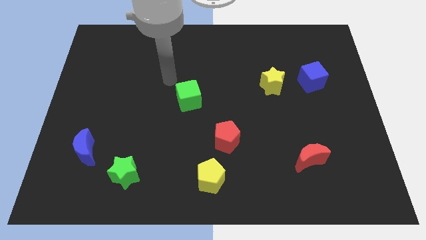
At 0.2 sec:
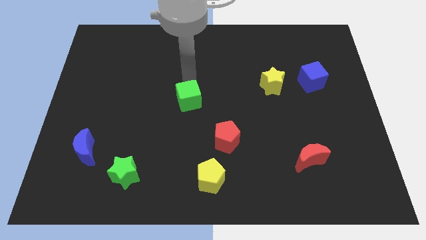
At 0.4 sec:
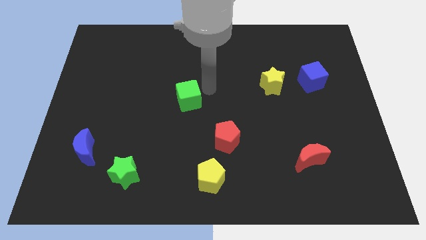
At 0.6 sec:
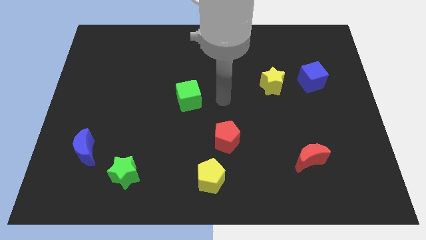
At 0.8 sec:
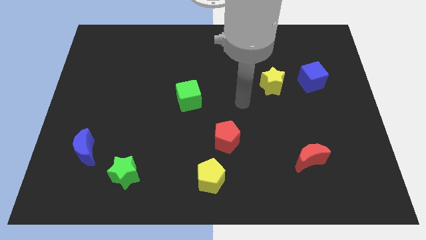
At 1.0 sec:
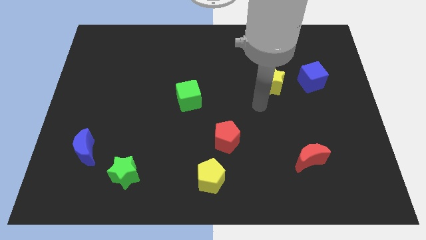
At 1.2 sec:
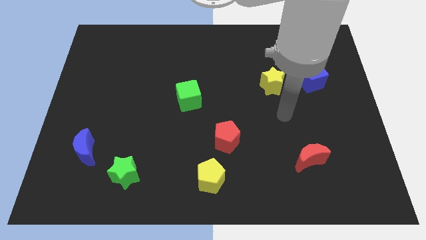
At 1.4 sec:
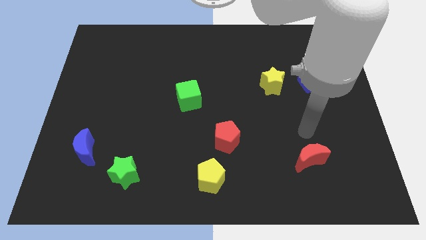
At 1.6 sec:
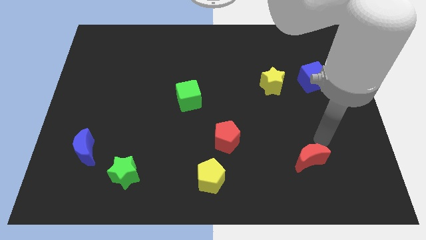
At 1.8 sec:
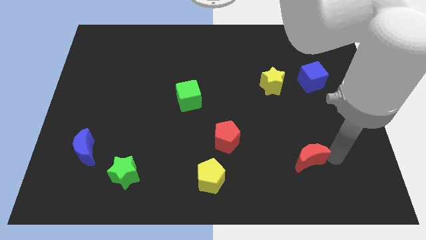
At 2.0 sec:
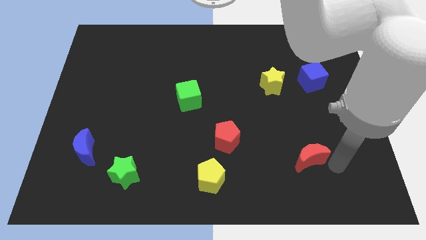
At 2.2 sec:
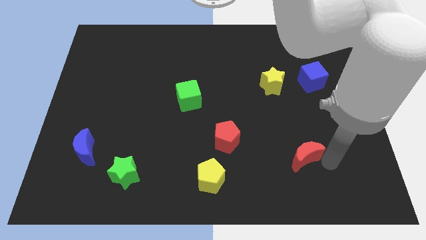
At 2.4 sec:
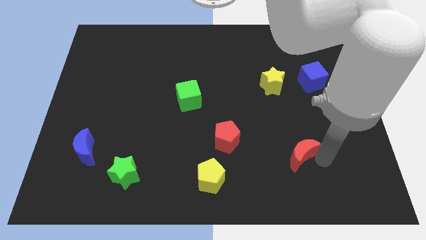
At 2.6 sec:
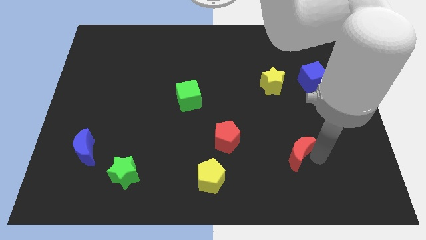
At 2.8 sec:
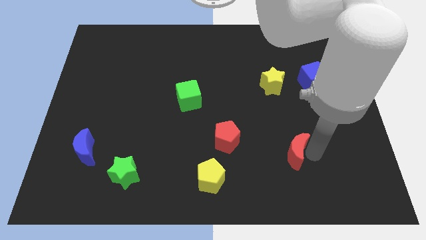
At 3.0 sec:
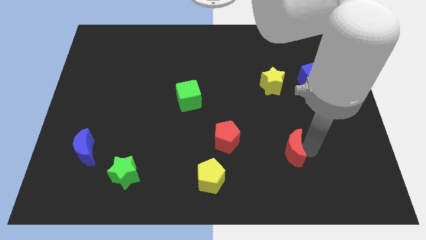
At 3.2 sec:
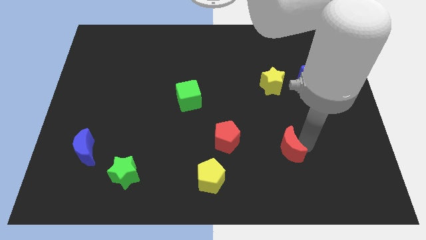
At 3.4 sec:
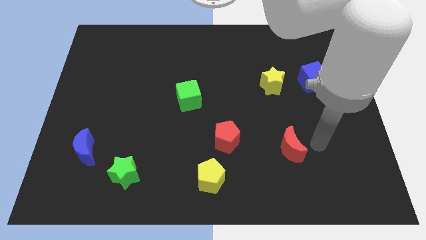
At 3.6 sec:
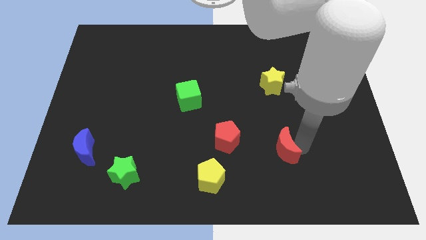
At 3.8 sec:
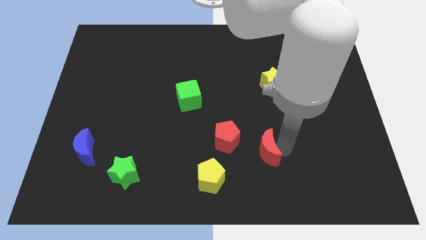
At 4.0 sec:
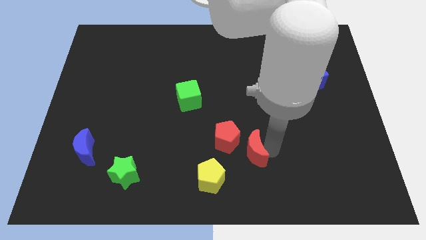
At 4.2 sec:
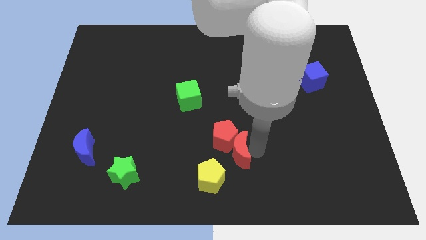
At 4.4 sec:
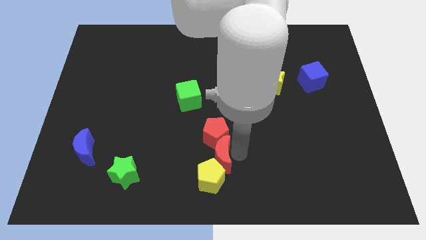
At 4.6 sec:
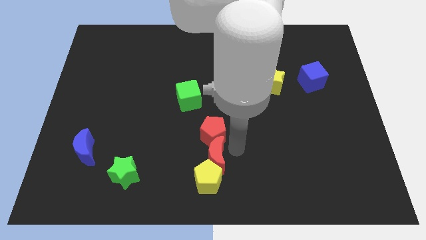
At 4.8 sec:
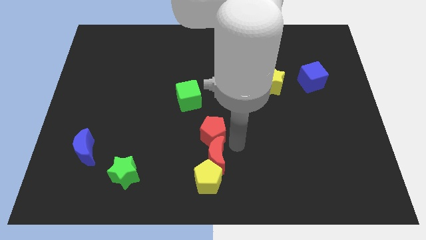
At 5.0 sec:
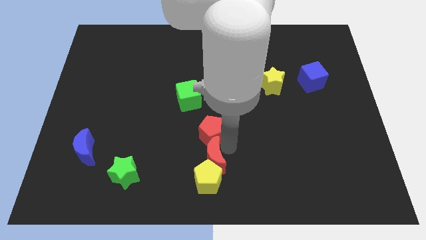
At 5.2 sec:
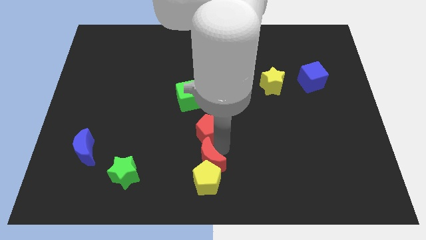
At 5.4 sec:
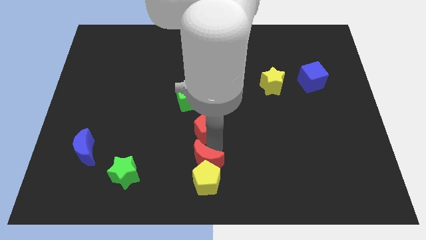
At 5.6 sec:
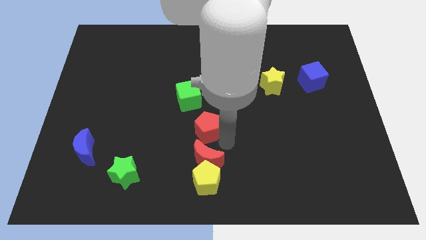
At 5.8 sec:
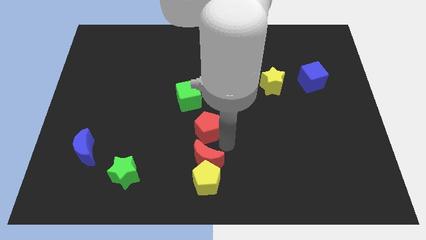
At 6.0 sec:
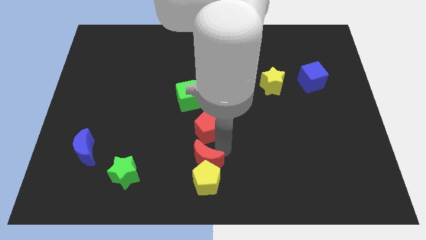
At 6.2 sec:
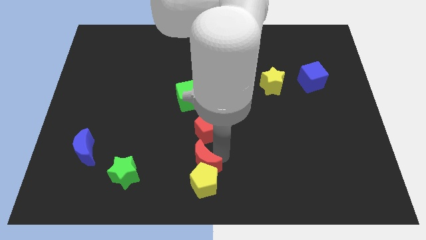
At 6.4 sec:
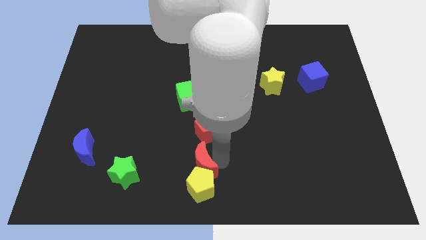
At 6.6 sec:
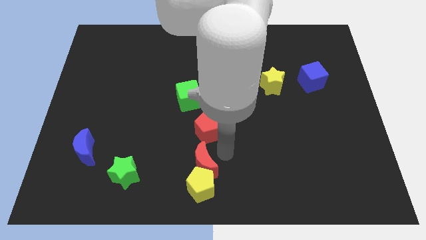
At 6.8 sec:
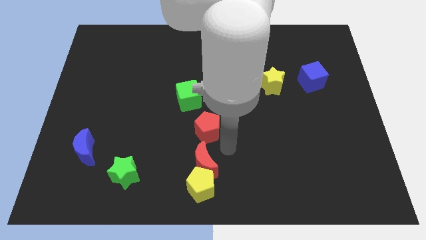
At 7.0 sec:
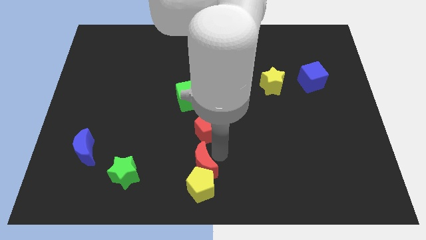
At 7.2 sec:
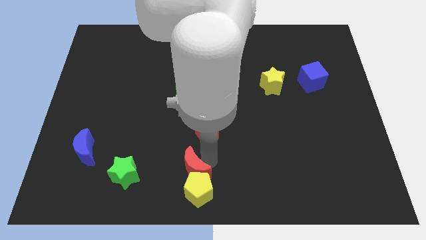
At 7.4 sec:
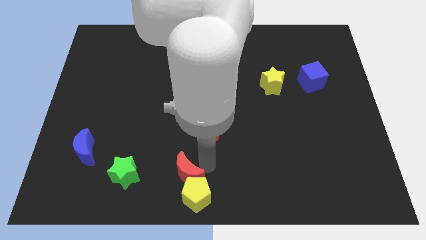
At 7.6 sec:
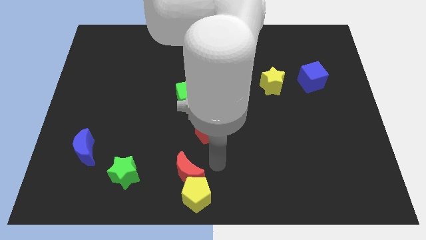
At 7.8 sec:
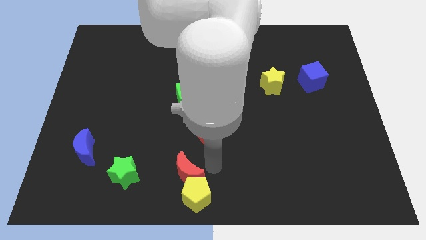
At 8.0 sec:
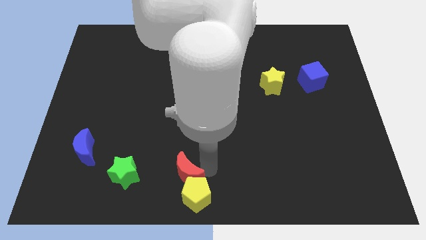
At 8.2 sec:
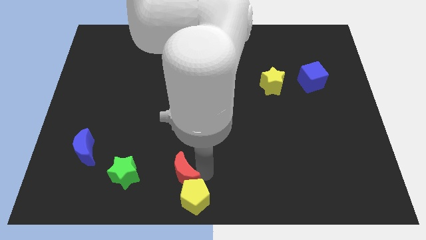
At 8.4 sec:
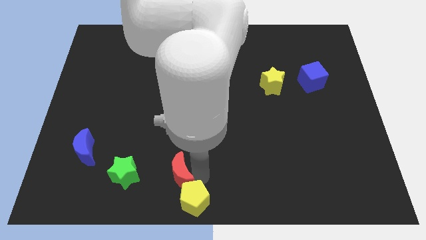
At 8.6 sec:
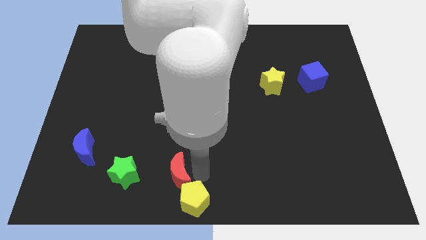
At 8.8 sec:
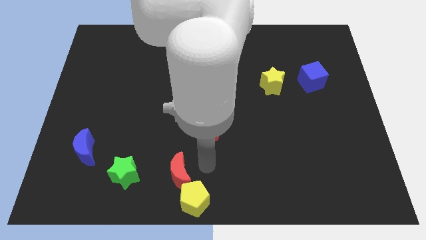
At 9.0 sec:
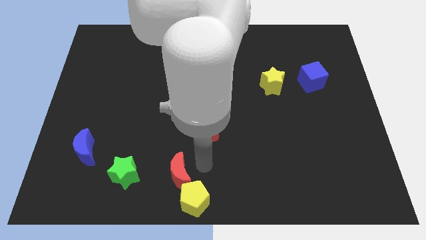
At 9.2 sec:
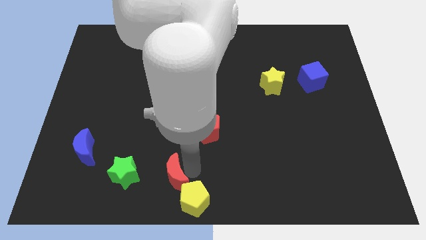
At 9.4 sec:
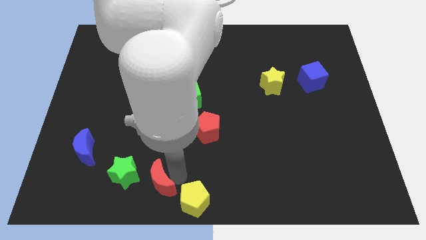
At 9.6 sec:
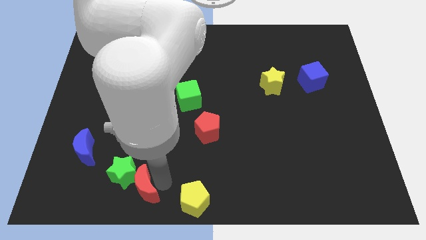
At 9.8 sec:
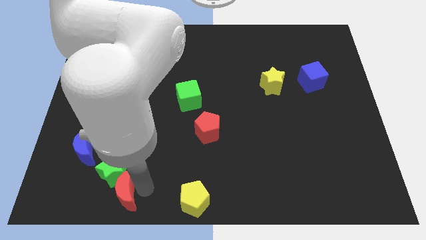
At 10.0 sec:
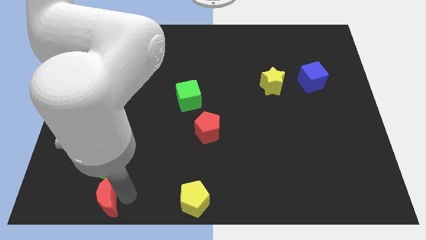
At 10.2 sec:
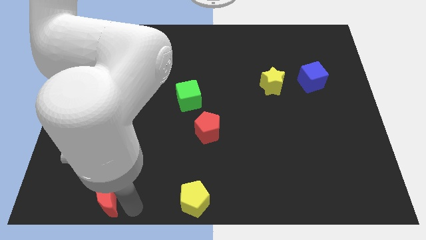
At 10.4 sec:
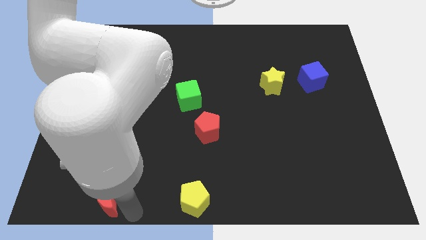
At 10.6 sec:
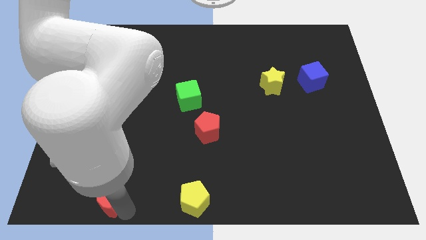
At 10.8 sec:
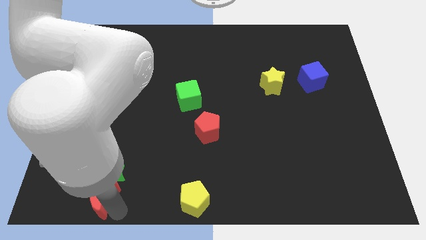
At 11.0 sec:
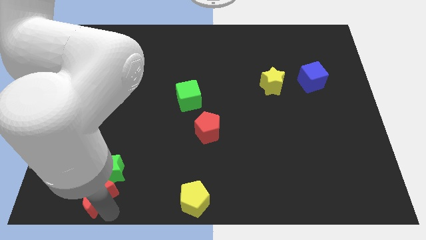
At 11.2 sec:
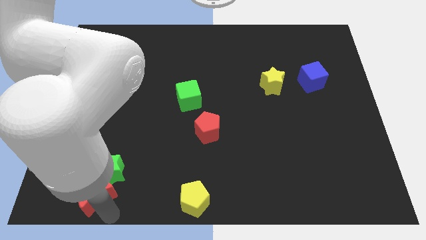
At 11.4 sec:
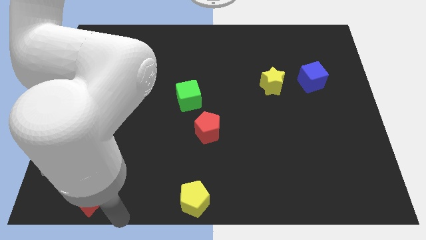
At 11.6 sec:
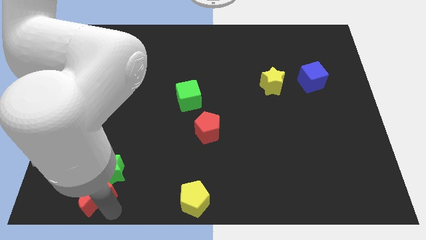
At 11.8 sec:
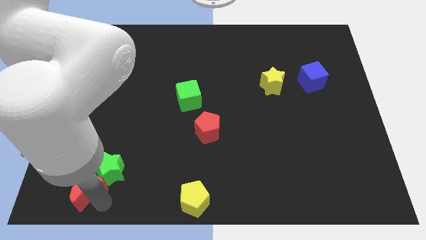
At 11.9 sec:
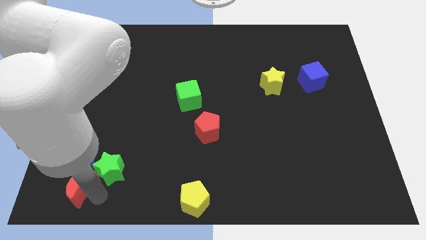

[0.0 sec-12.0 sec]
push the red moon to the bottom left corner
